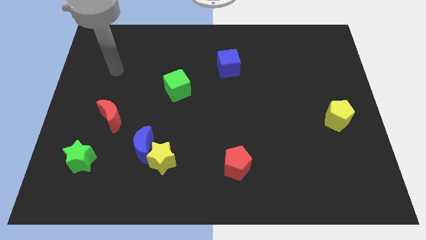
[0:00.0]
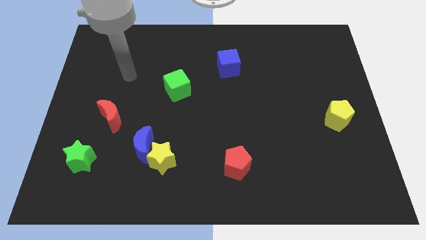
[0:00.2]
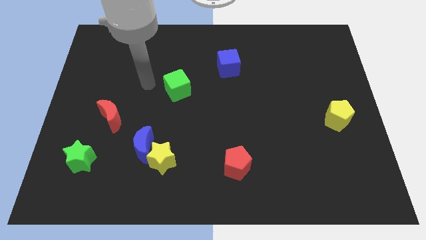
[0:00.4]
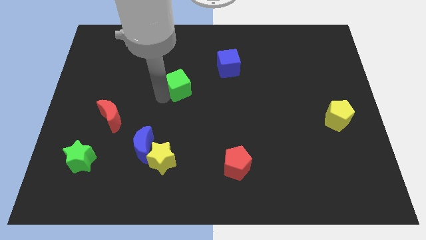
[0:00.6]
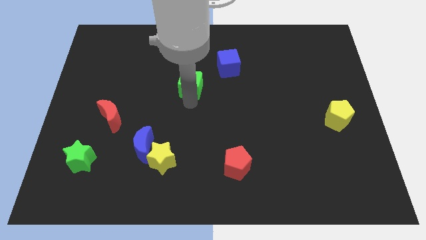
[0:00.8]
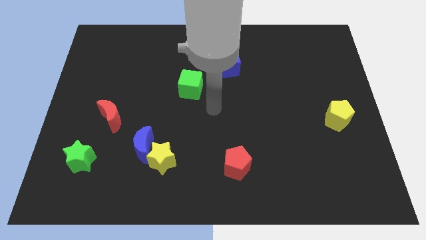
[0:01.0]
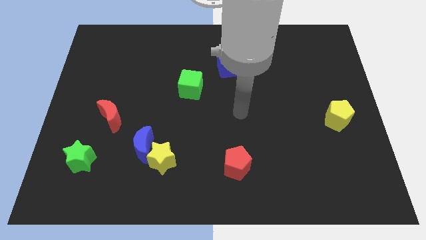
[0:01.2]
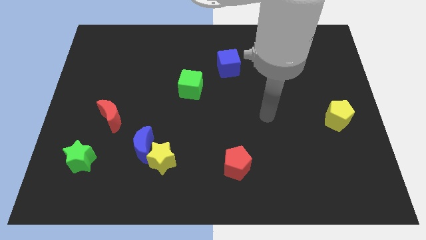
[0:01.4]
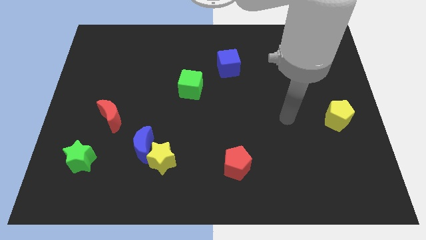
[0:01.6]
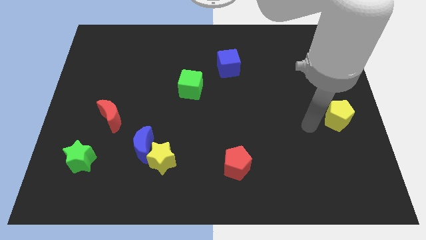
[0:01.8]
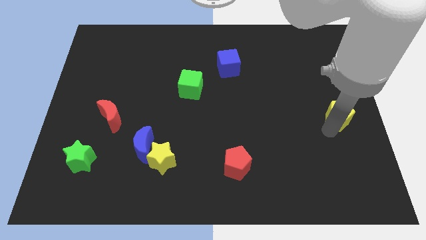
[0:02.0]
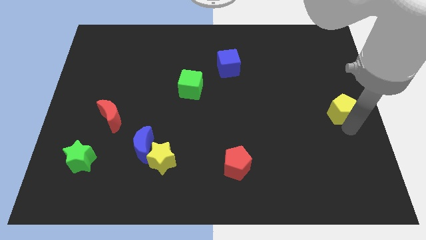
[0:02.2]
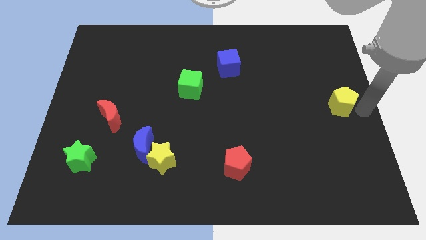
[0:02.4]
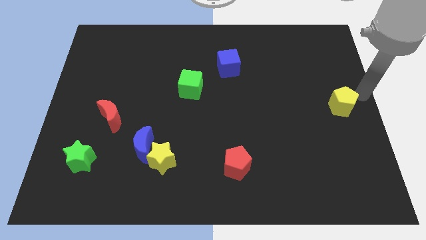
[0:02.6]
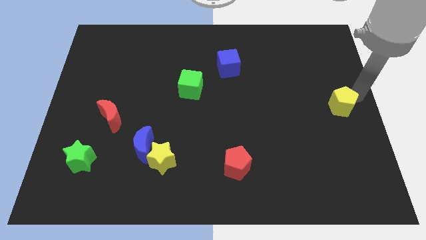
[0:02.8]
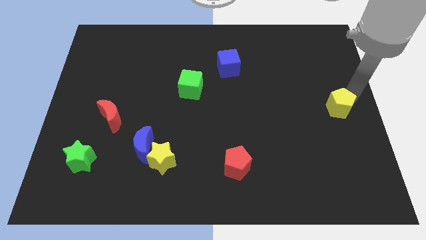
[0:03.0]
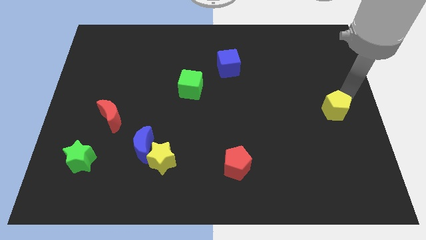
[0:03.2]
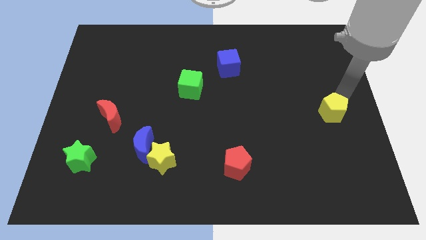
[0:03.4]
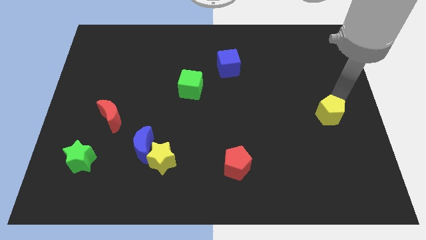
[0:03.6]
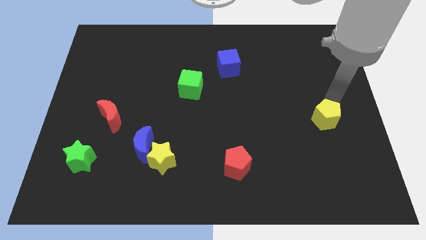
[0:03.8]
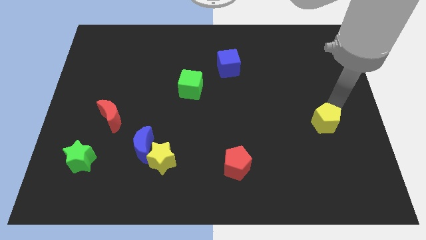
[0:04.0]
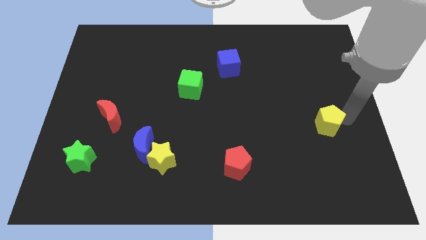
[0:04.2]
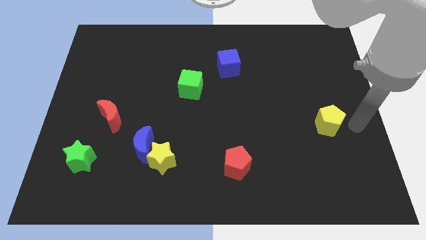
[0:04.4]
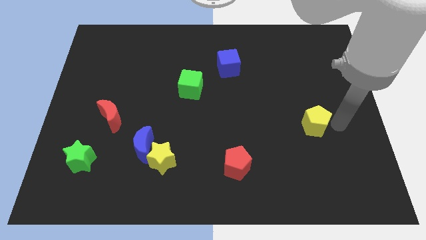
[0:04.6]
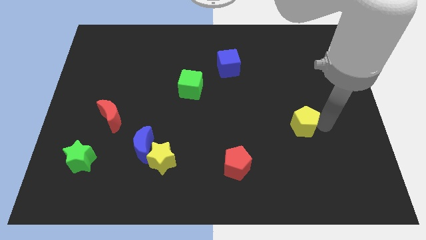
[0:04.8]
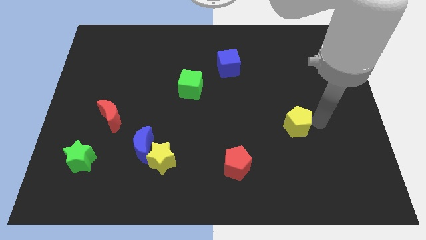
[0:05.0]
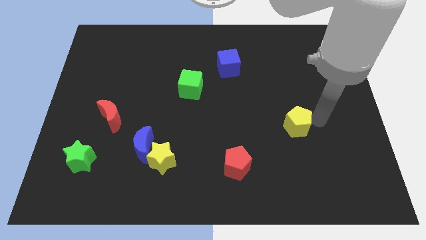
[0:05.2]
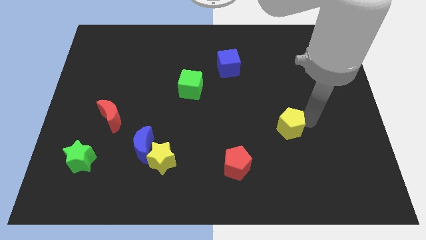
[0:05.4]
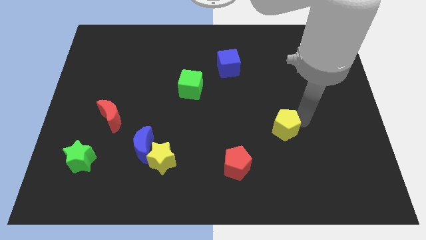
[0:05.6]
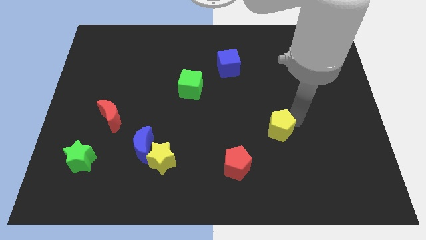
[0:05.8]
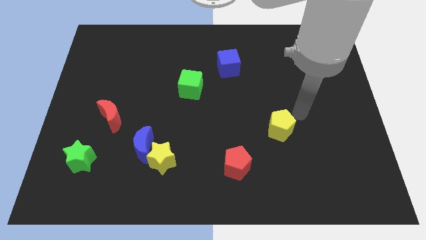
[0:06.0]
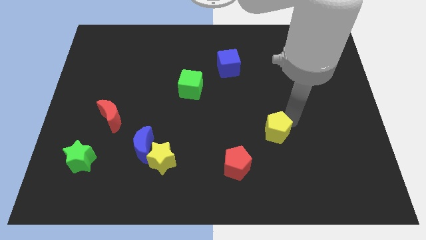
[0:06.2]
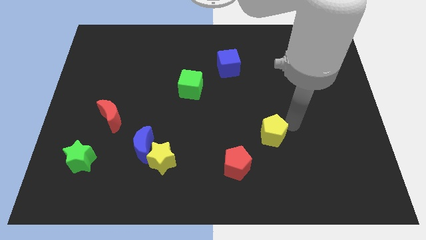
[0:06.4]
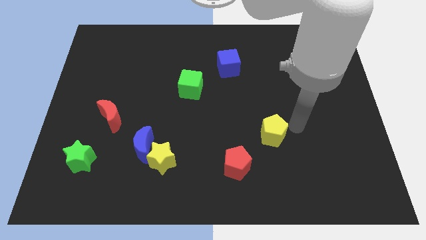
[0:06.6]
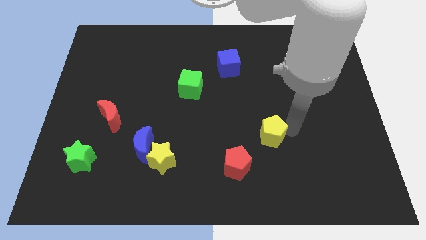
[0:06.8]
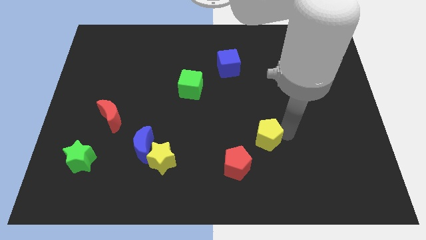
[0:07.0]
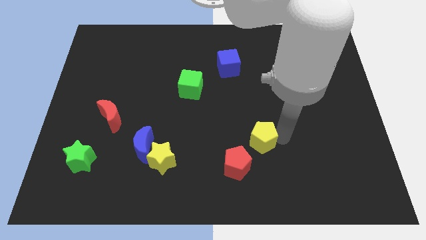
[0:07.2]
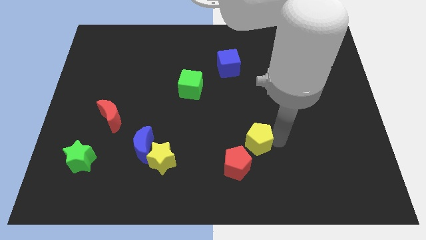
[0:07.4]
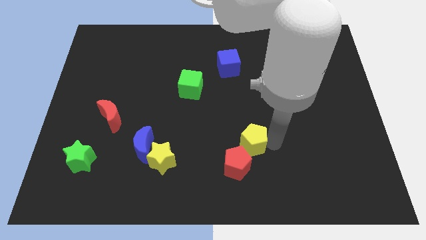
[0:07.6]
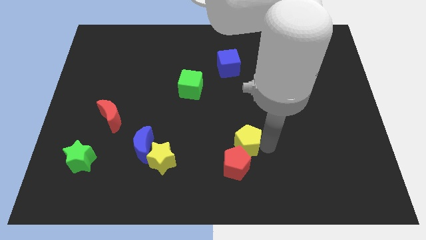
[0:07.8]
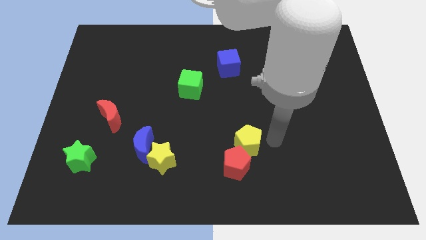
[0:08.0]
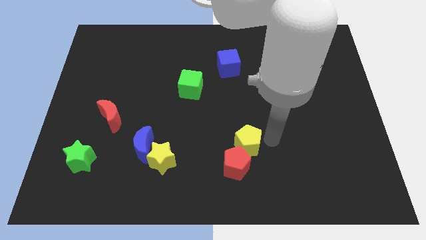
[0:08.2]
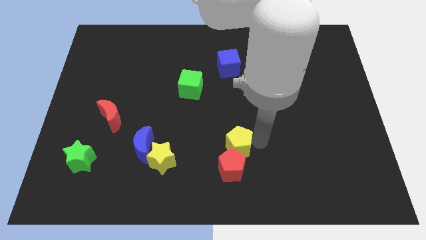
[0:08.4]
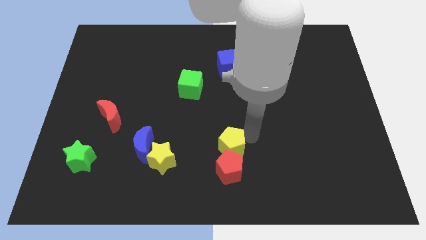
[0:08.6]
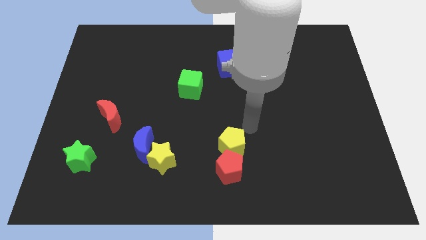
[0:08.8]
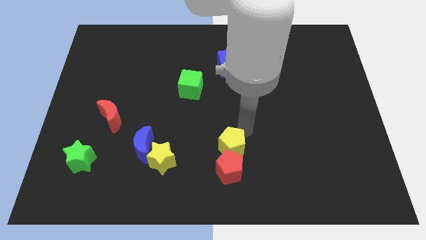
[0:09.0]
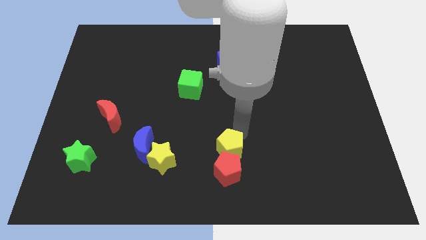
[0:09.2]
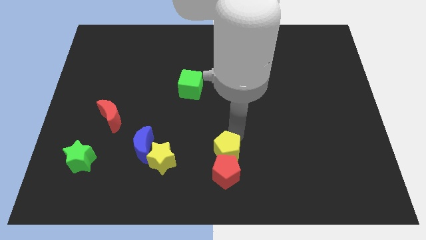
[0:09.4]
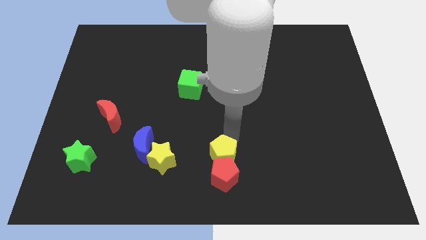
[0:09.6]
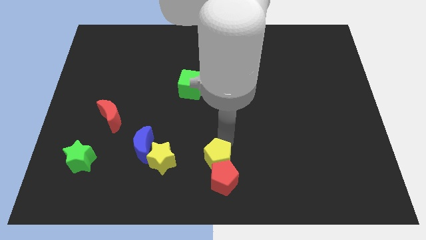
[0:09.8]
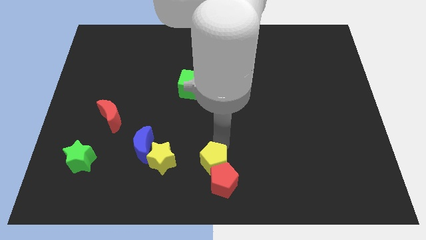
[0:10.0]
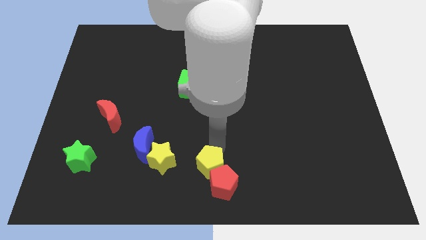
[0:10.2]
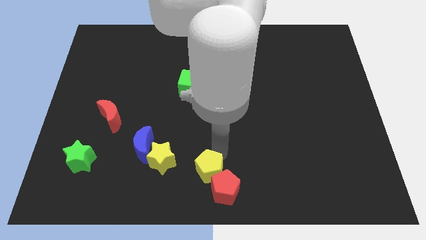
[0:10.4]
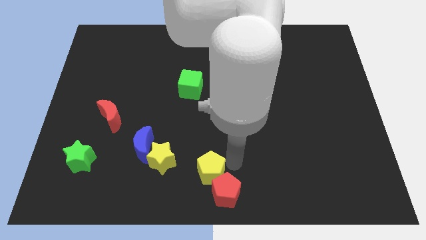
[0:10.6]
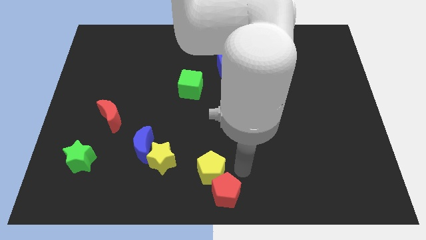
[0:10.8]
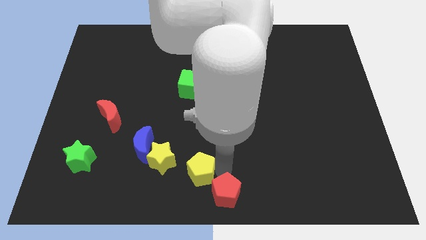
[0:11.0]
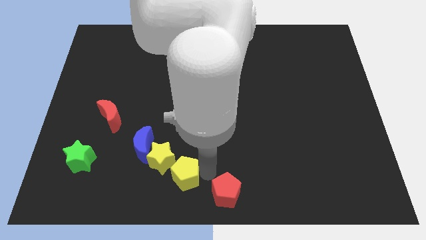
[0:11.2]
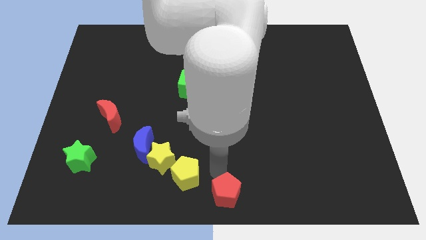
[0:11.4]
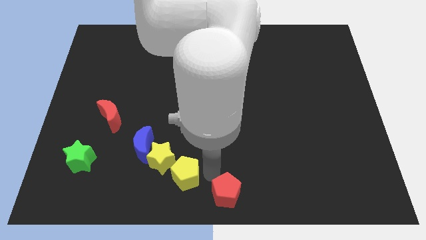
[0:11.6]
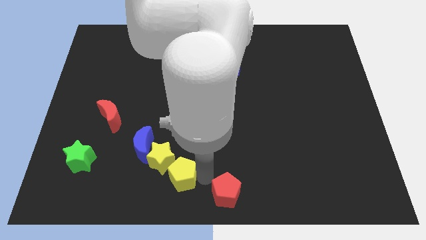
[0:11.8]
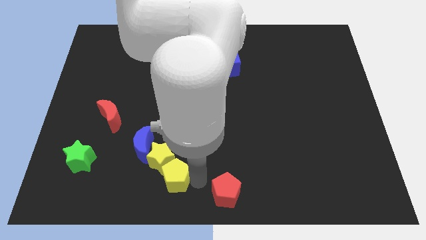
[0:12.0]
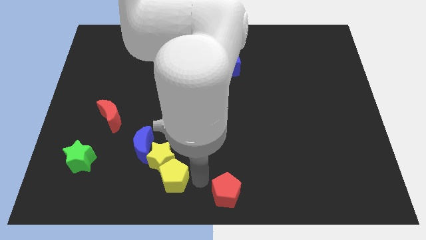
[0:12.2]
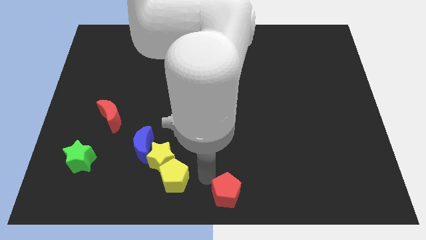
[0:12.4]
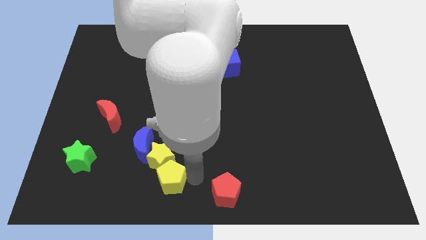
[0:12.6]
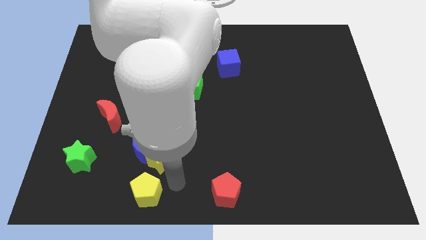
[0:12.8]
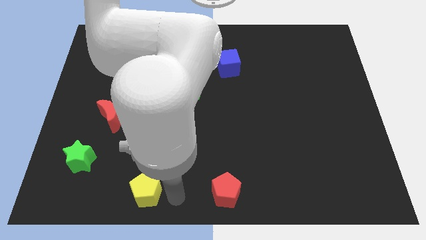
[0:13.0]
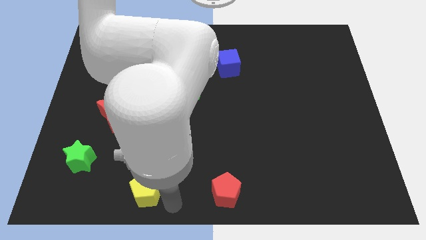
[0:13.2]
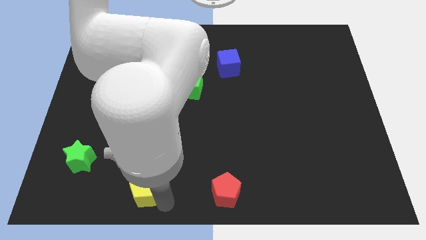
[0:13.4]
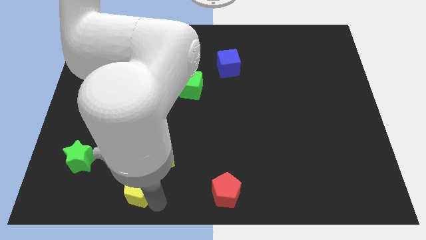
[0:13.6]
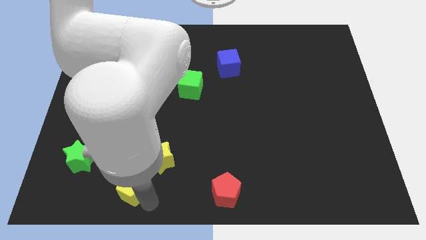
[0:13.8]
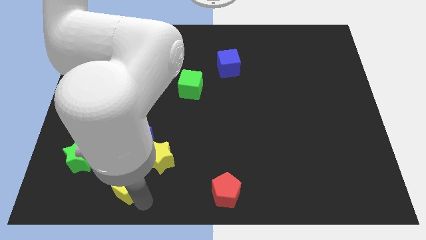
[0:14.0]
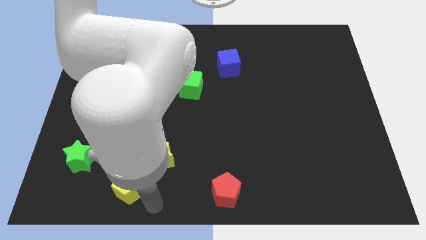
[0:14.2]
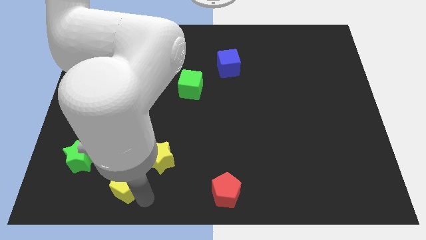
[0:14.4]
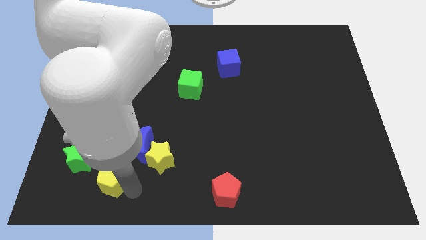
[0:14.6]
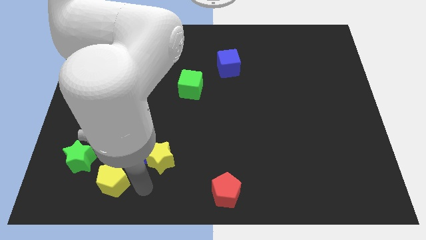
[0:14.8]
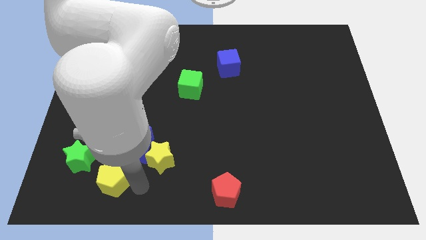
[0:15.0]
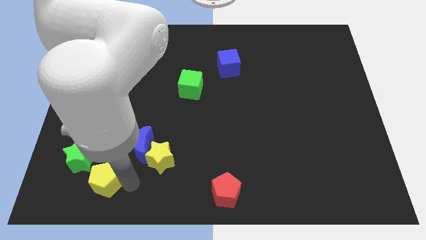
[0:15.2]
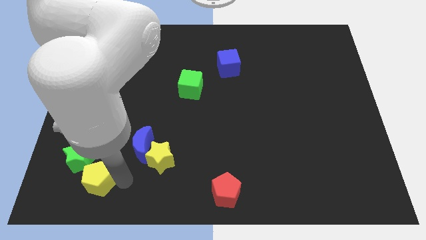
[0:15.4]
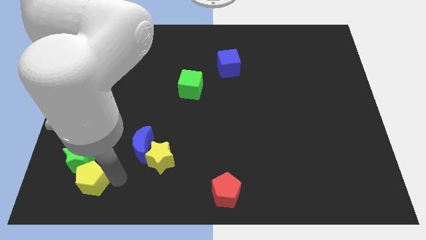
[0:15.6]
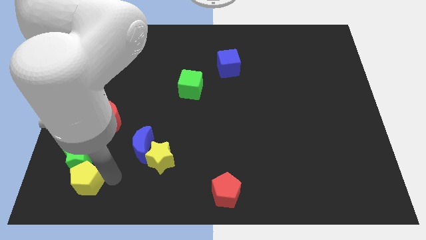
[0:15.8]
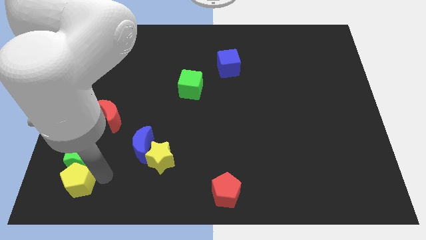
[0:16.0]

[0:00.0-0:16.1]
push the yellow pentagon to the bottom left
